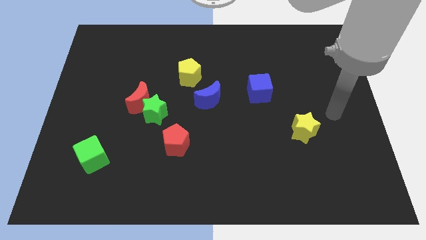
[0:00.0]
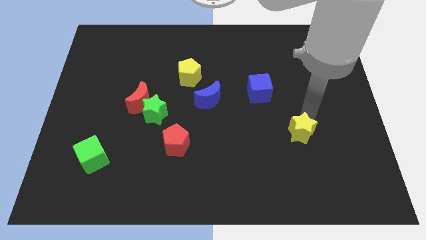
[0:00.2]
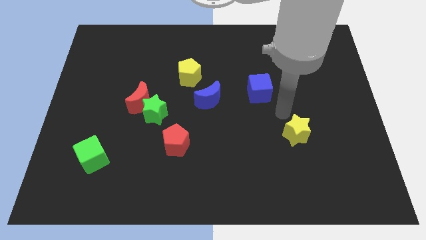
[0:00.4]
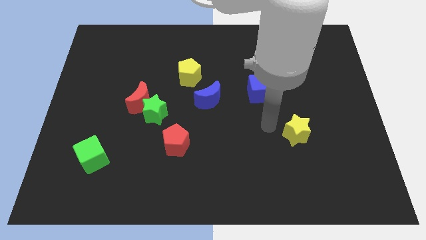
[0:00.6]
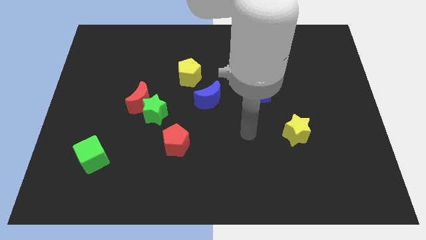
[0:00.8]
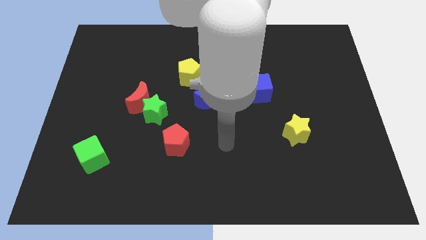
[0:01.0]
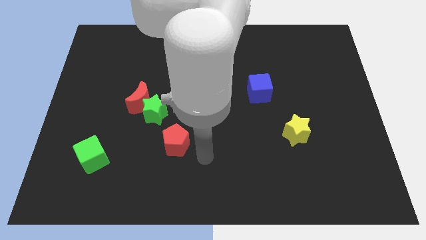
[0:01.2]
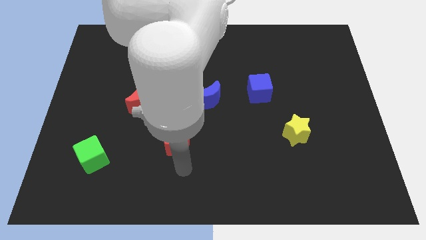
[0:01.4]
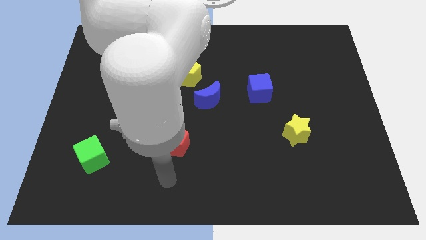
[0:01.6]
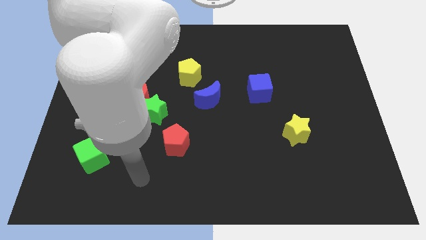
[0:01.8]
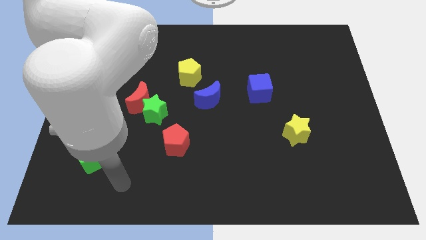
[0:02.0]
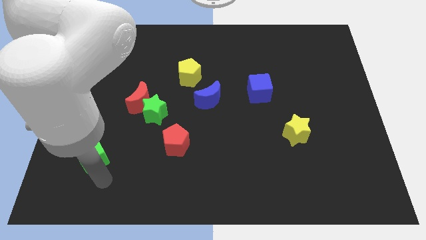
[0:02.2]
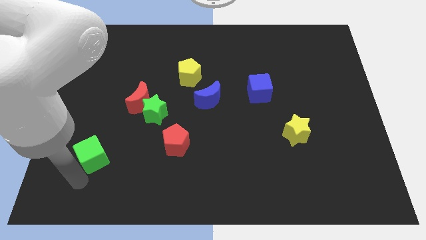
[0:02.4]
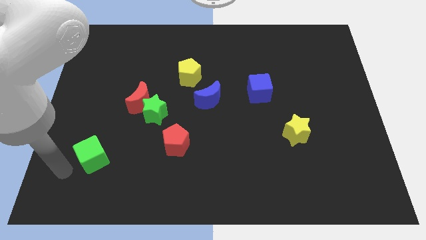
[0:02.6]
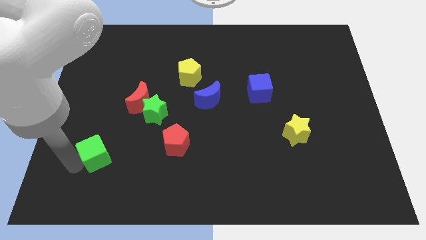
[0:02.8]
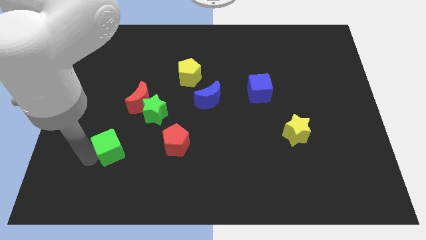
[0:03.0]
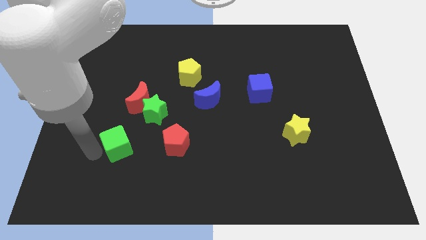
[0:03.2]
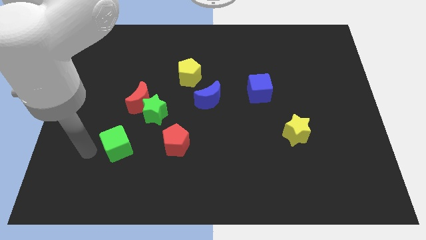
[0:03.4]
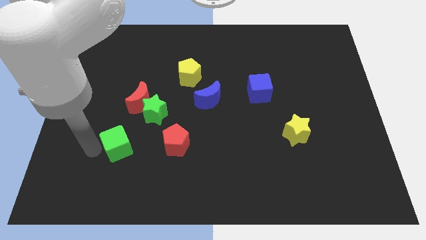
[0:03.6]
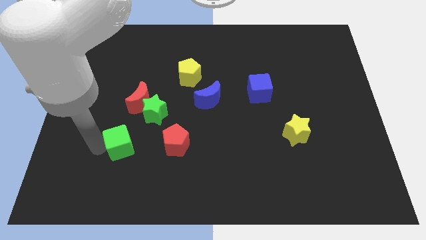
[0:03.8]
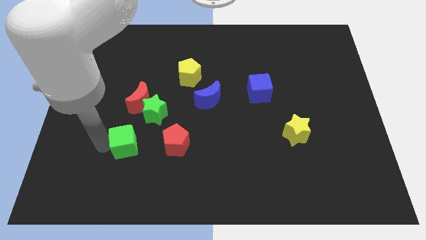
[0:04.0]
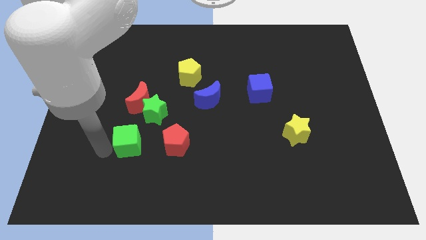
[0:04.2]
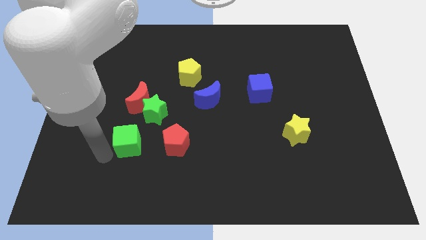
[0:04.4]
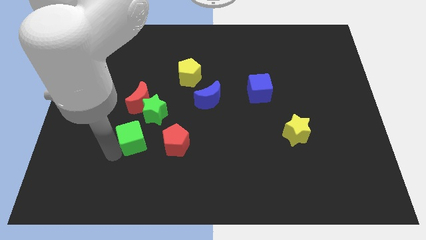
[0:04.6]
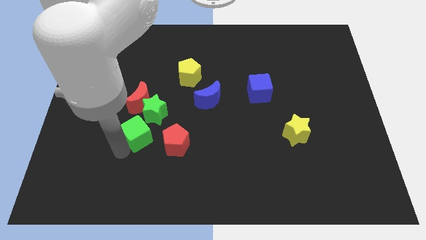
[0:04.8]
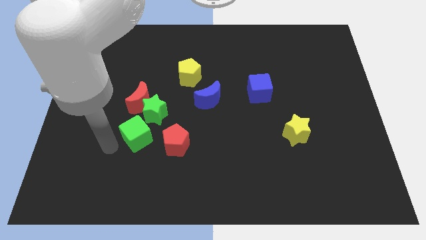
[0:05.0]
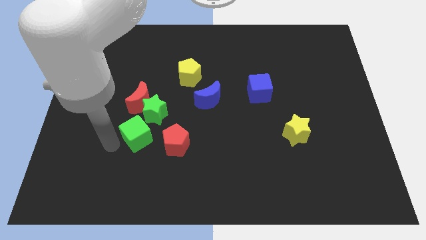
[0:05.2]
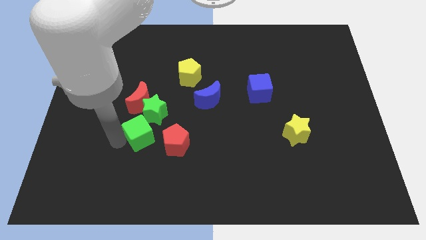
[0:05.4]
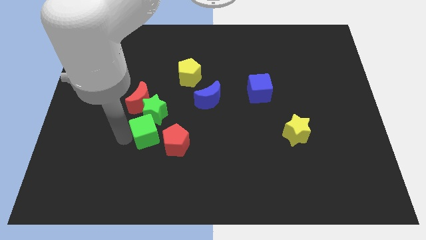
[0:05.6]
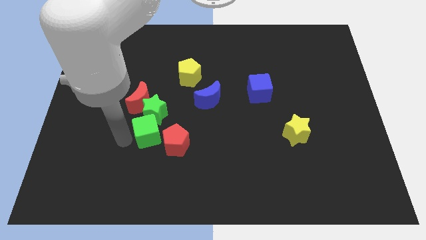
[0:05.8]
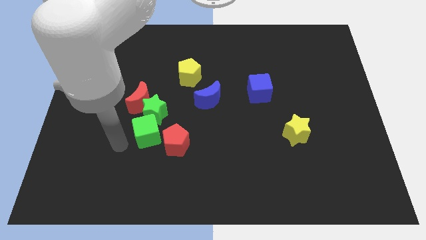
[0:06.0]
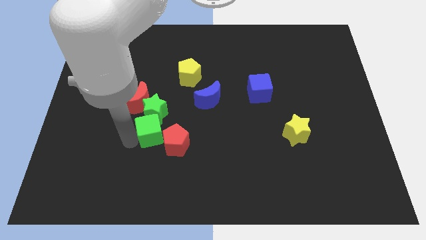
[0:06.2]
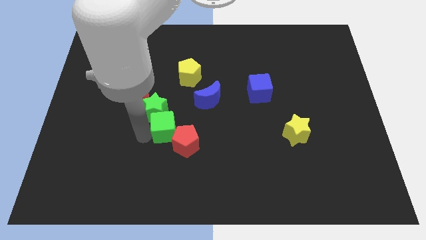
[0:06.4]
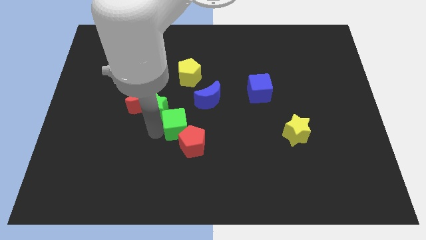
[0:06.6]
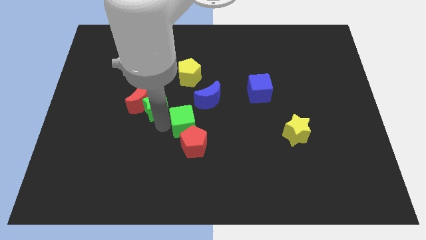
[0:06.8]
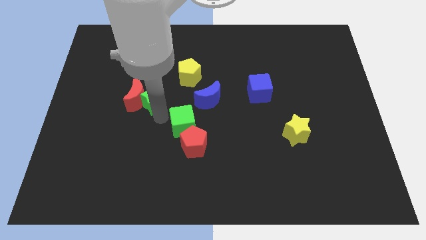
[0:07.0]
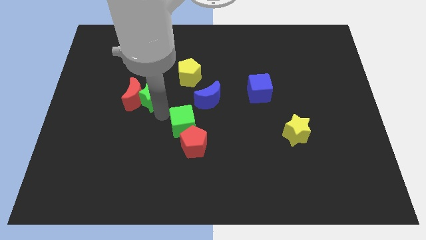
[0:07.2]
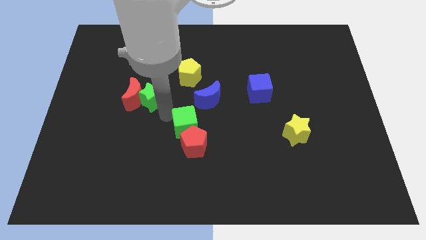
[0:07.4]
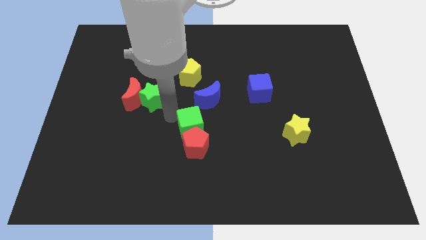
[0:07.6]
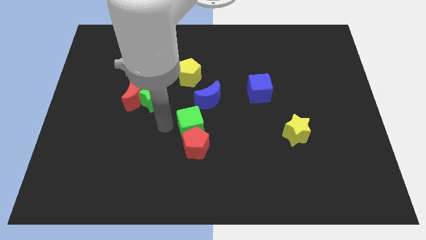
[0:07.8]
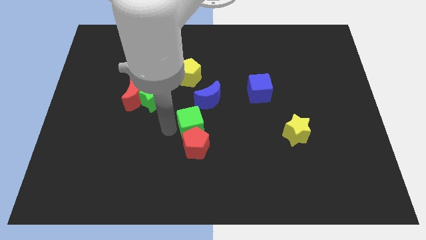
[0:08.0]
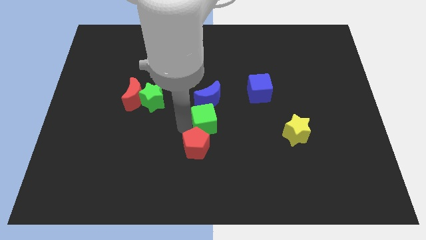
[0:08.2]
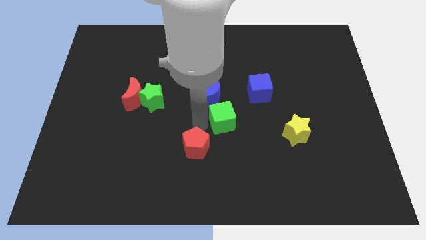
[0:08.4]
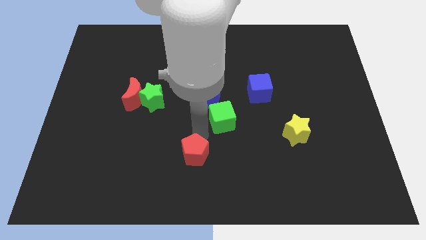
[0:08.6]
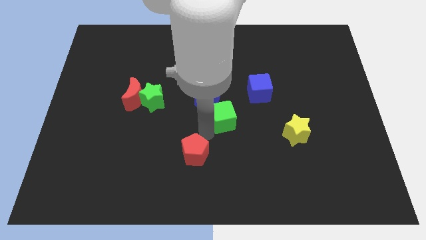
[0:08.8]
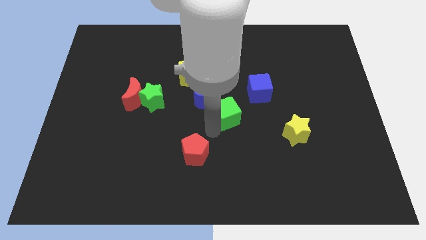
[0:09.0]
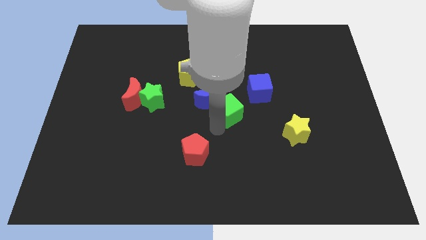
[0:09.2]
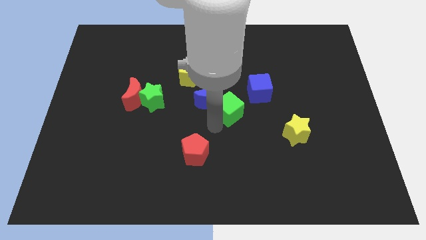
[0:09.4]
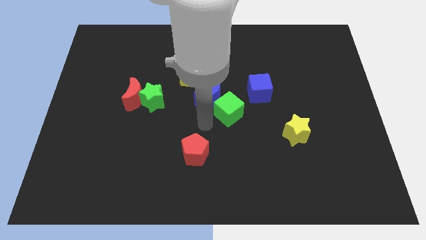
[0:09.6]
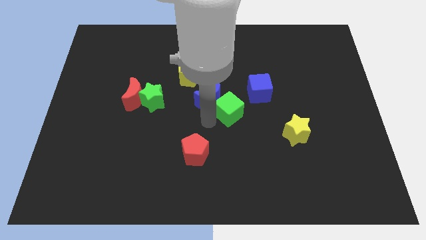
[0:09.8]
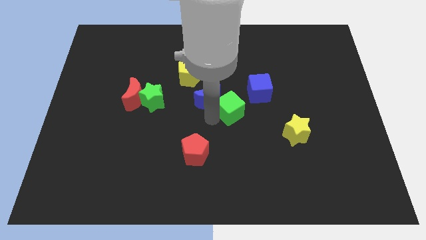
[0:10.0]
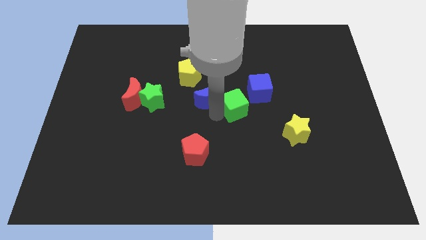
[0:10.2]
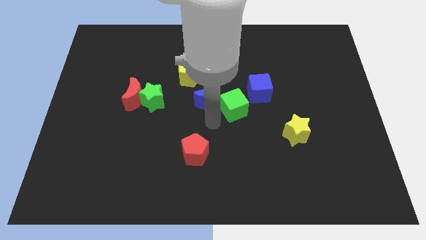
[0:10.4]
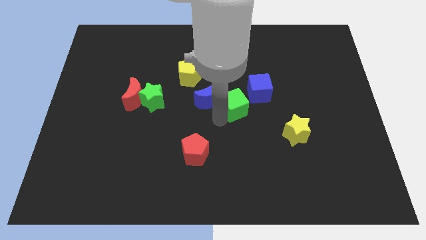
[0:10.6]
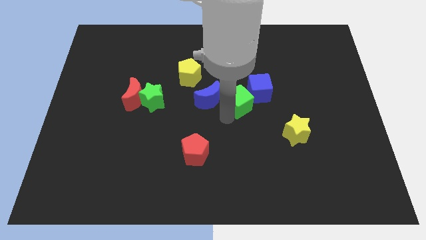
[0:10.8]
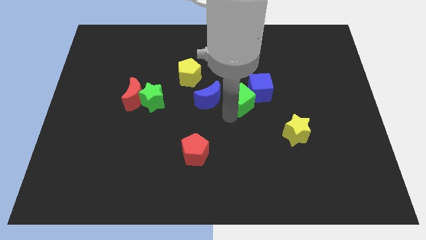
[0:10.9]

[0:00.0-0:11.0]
slide the green cube next to the blue cube

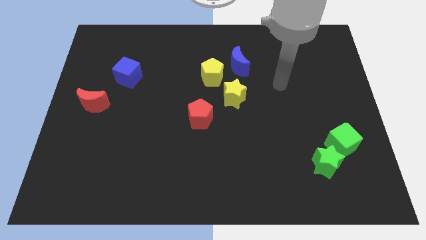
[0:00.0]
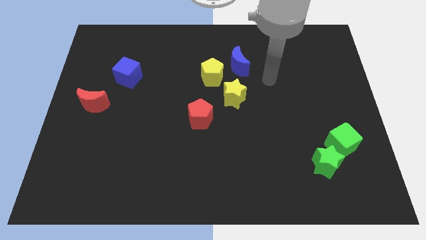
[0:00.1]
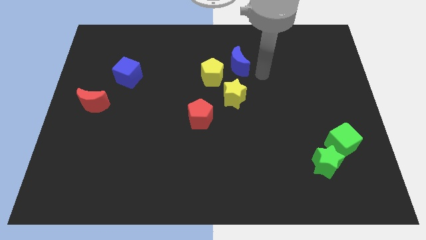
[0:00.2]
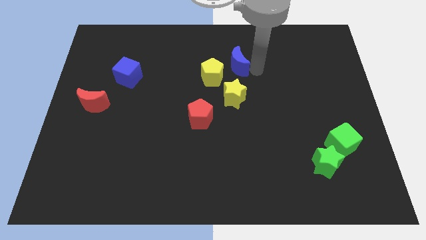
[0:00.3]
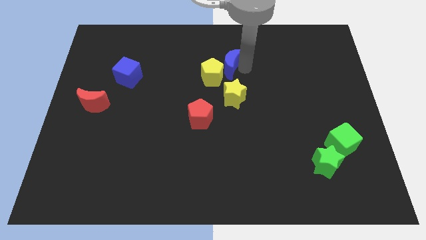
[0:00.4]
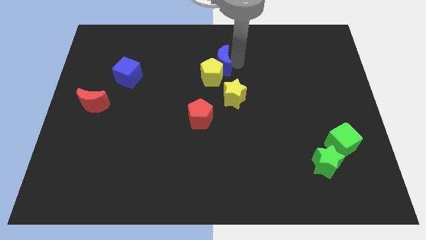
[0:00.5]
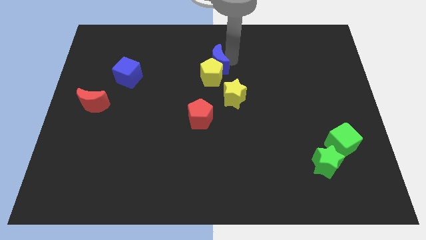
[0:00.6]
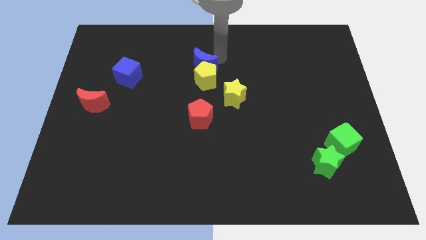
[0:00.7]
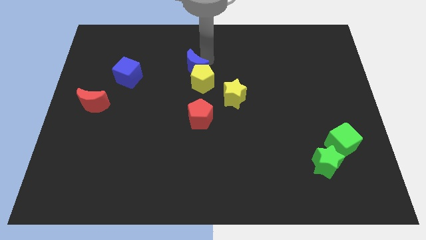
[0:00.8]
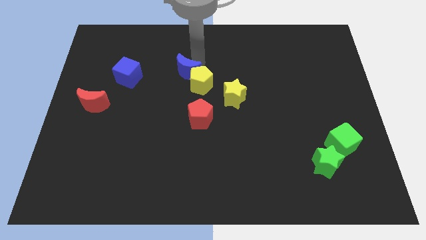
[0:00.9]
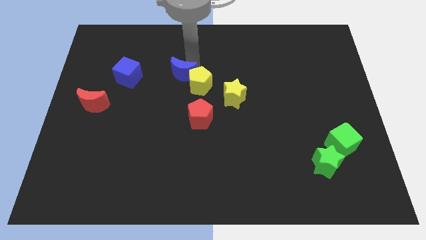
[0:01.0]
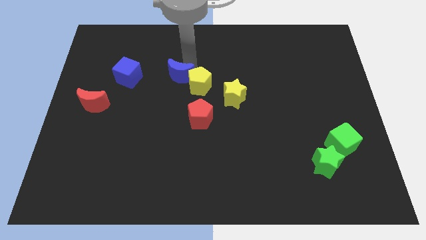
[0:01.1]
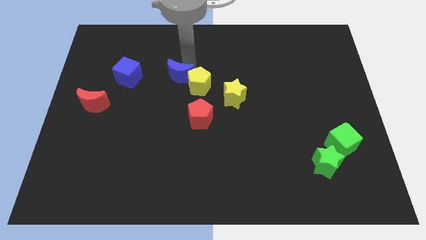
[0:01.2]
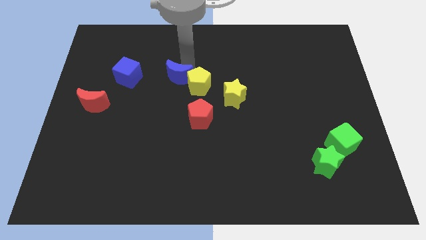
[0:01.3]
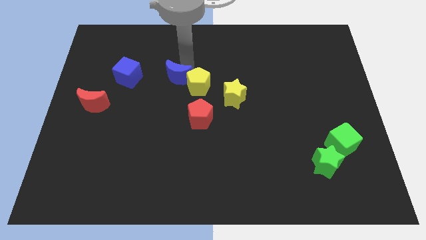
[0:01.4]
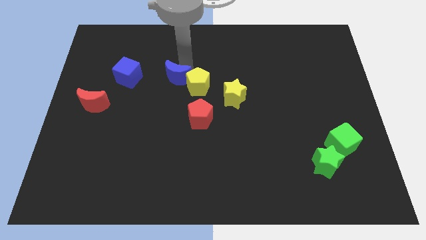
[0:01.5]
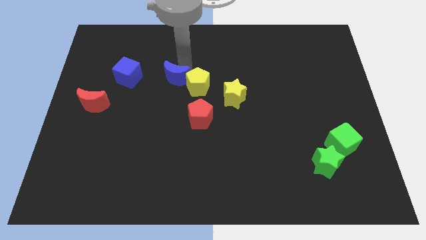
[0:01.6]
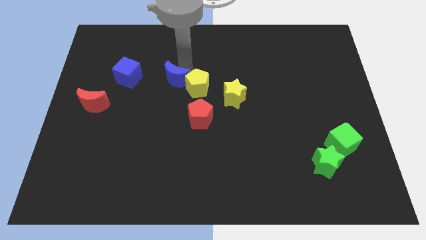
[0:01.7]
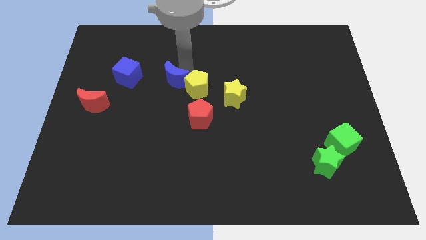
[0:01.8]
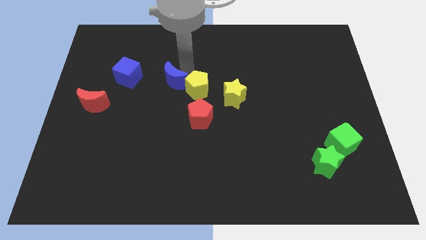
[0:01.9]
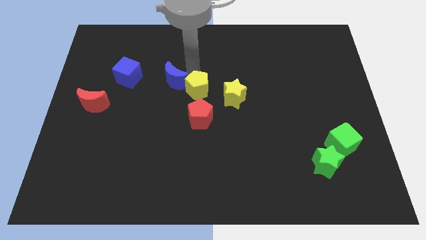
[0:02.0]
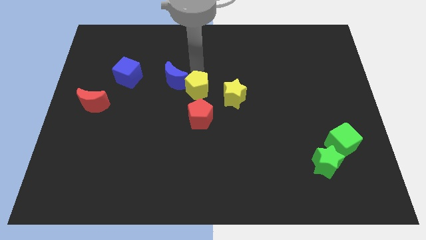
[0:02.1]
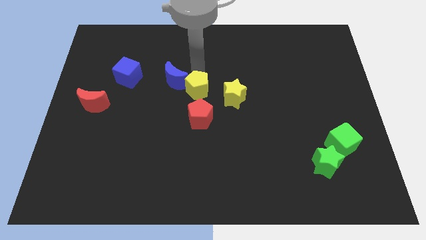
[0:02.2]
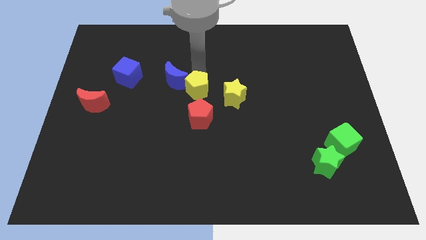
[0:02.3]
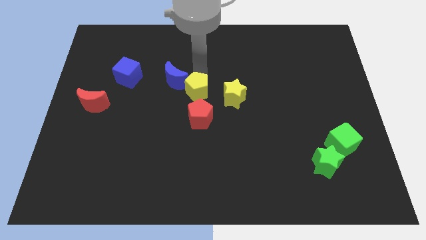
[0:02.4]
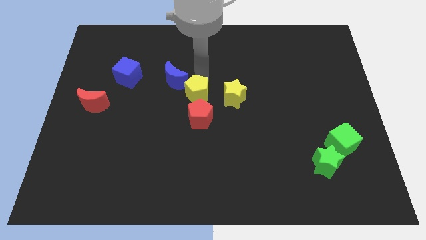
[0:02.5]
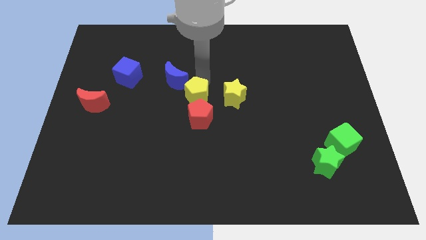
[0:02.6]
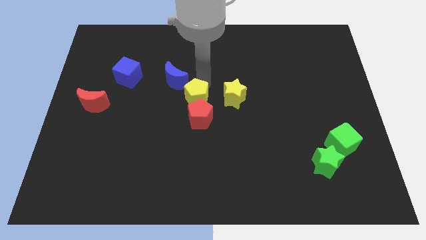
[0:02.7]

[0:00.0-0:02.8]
slide the yellow pentagon to the red pentagon
